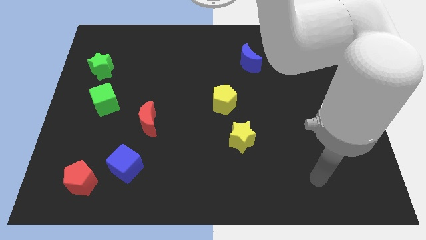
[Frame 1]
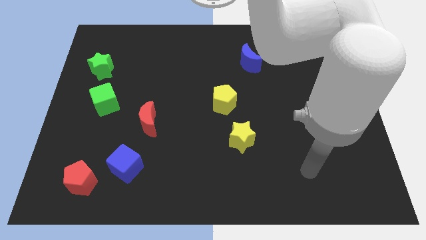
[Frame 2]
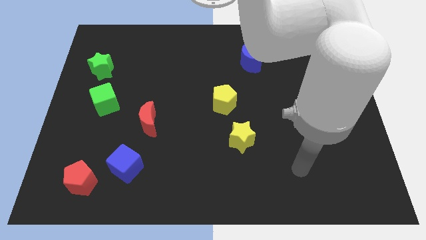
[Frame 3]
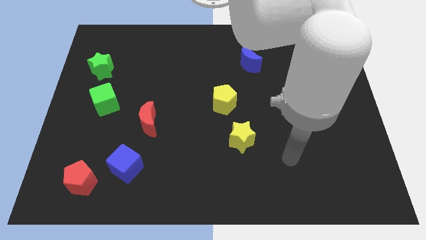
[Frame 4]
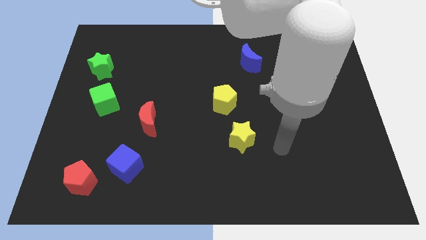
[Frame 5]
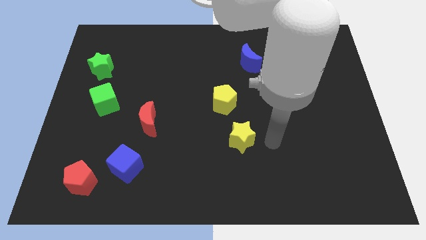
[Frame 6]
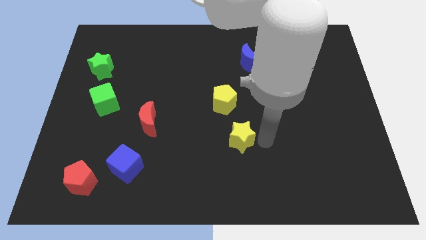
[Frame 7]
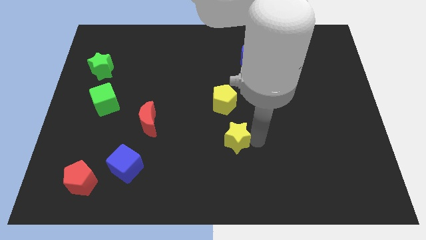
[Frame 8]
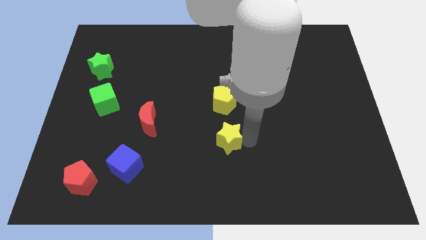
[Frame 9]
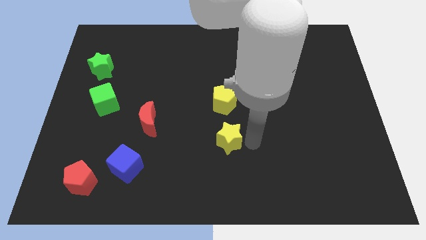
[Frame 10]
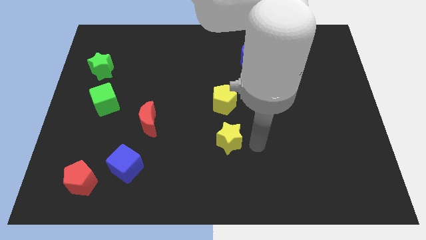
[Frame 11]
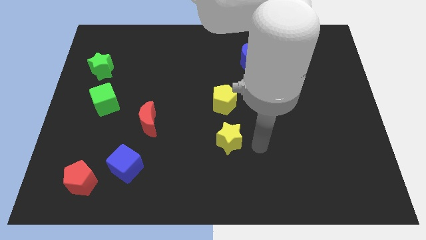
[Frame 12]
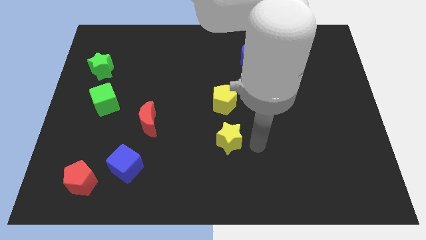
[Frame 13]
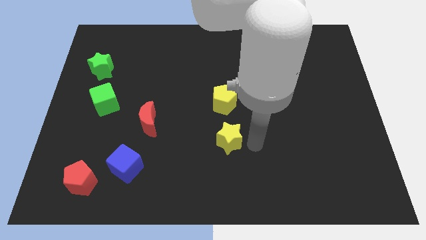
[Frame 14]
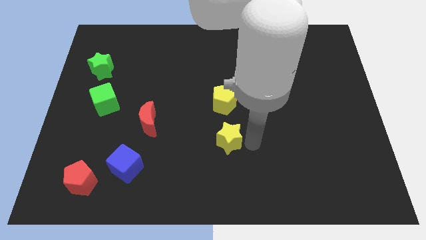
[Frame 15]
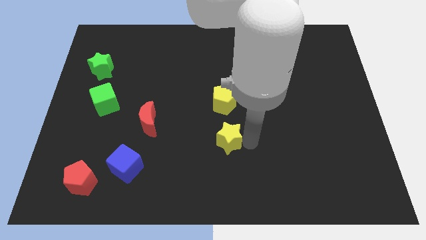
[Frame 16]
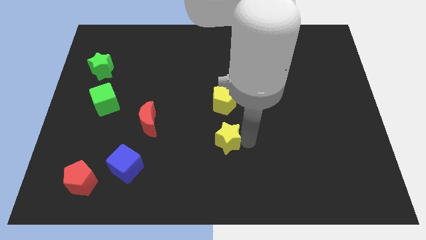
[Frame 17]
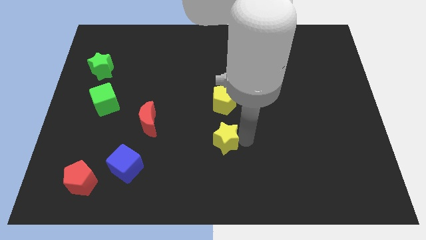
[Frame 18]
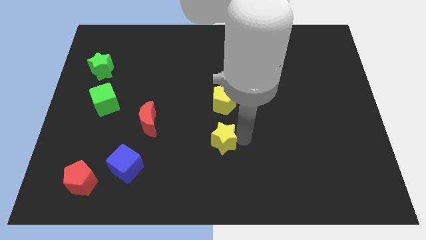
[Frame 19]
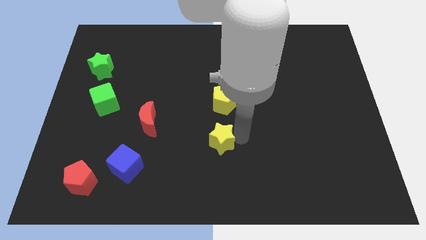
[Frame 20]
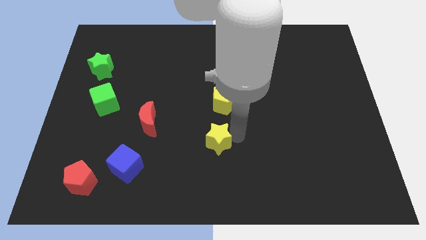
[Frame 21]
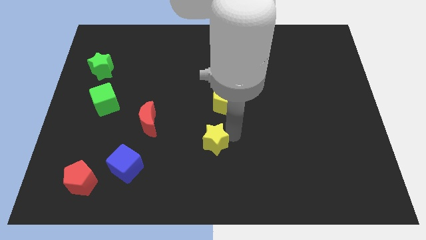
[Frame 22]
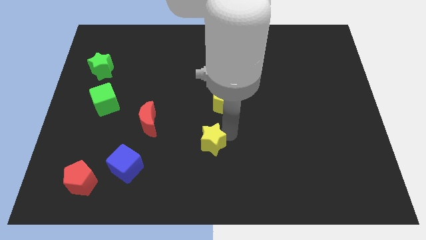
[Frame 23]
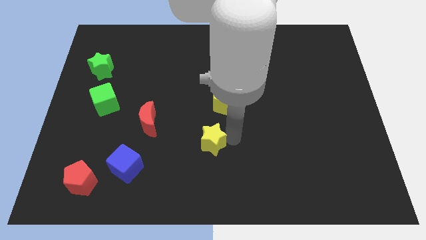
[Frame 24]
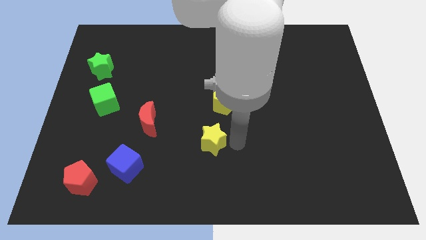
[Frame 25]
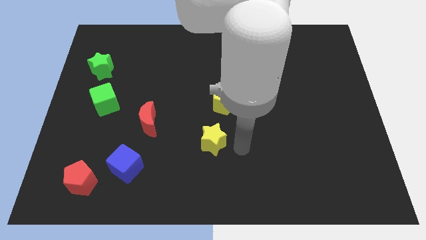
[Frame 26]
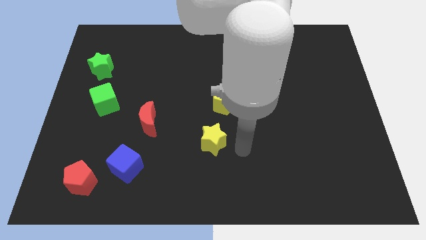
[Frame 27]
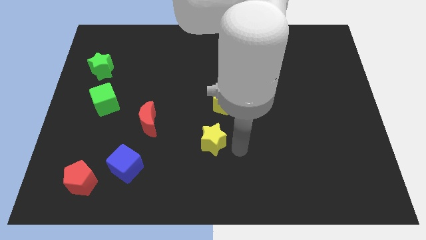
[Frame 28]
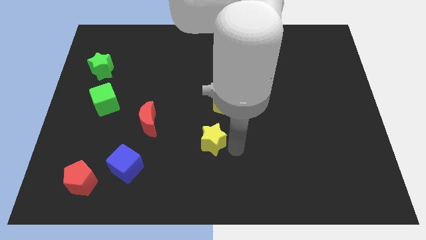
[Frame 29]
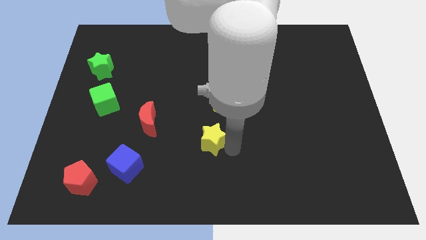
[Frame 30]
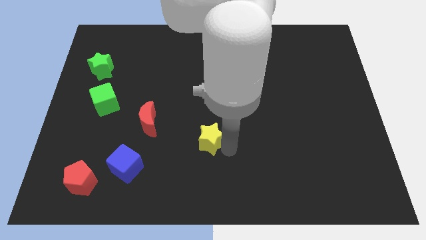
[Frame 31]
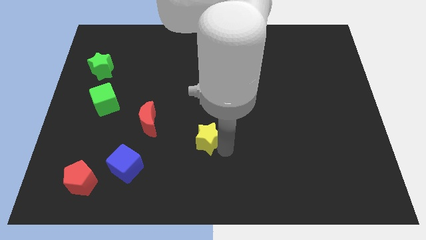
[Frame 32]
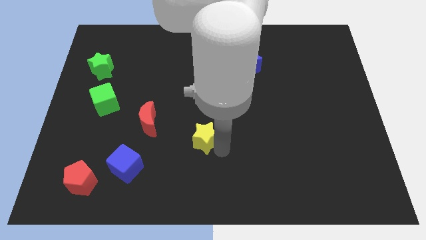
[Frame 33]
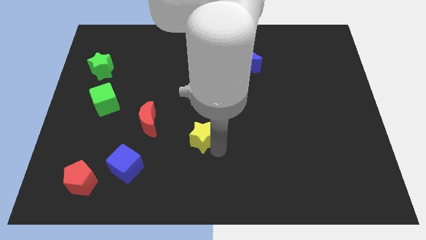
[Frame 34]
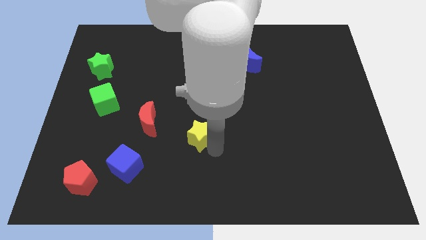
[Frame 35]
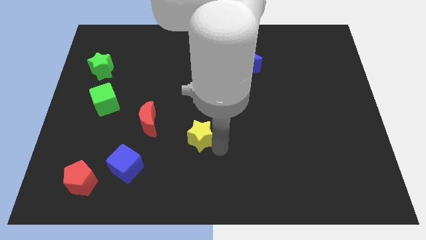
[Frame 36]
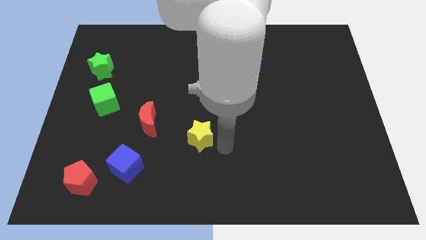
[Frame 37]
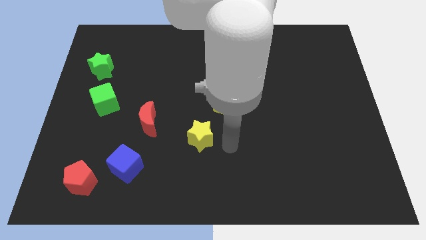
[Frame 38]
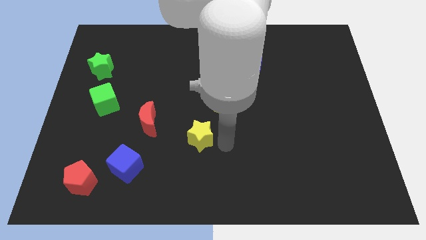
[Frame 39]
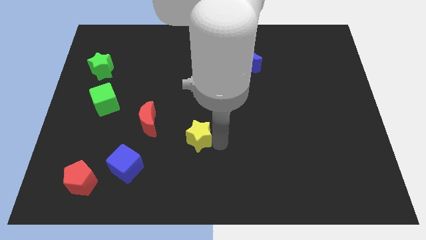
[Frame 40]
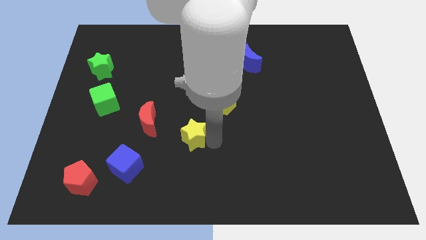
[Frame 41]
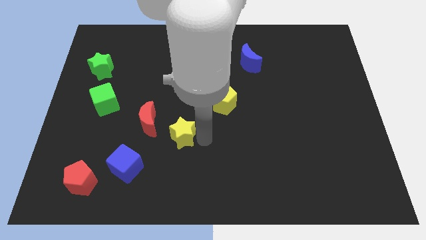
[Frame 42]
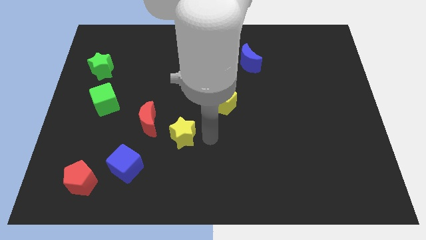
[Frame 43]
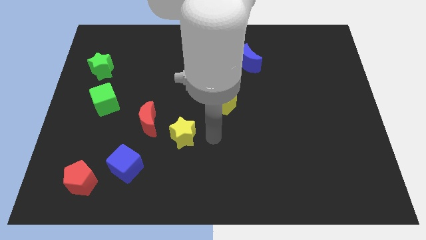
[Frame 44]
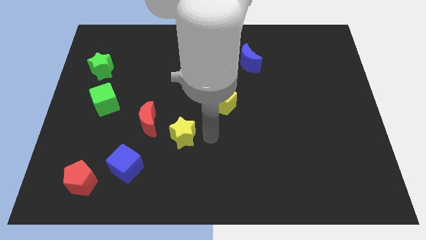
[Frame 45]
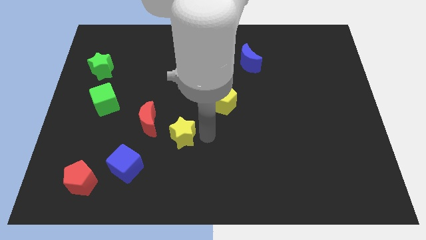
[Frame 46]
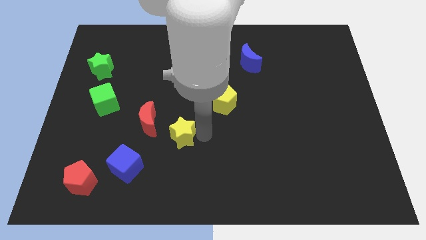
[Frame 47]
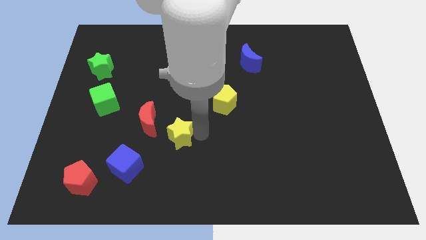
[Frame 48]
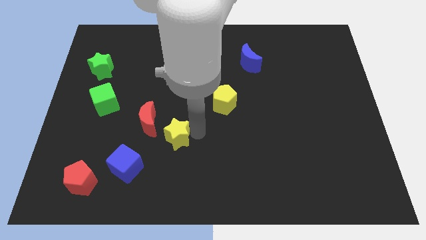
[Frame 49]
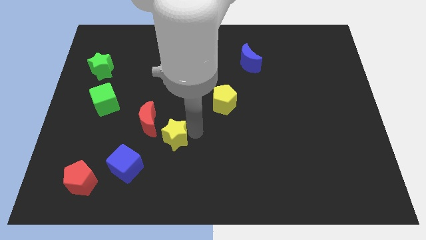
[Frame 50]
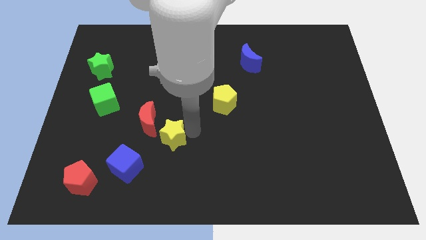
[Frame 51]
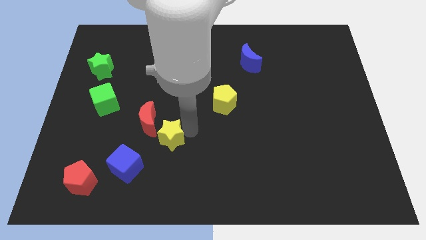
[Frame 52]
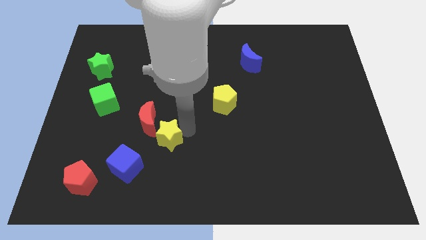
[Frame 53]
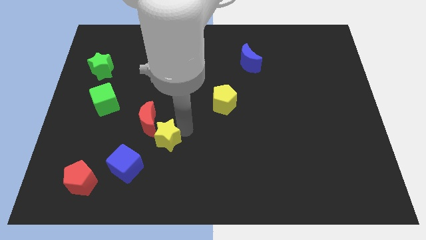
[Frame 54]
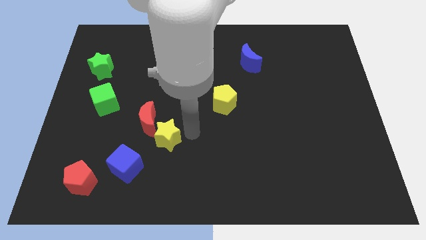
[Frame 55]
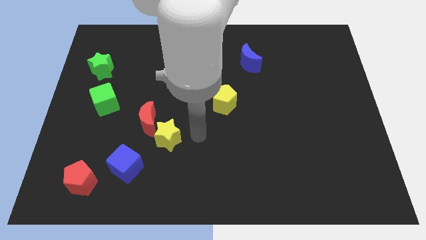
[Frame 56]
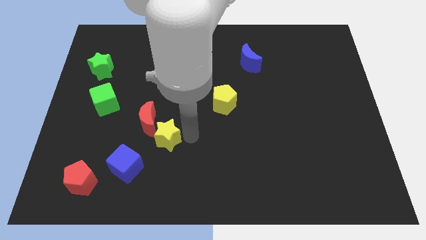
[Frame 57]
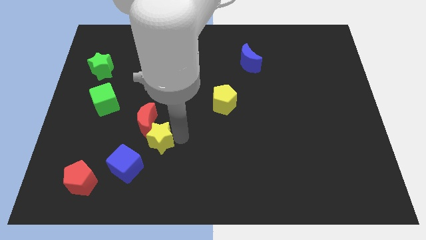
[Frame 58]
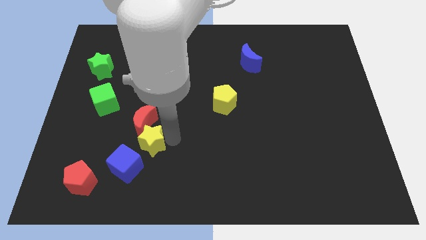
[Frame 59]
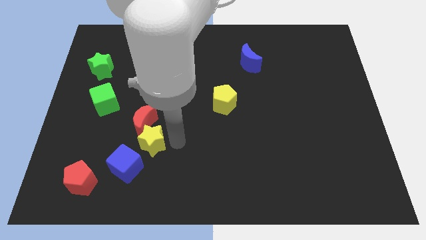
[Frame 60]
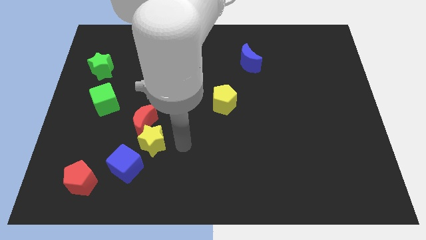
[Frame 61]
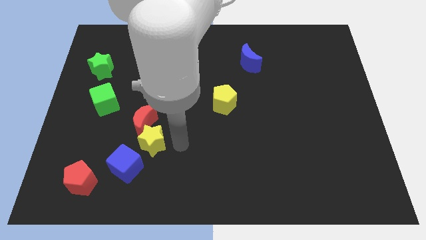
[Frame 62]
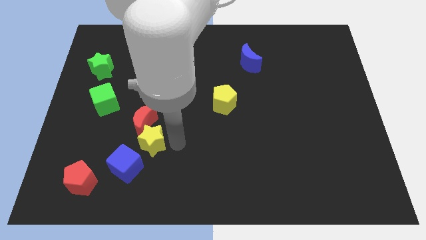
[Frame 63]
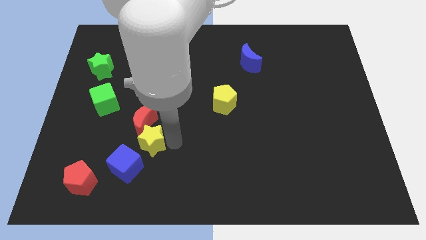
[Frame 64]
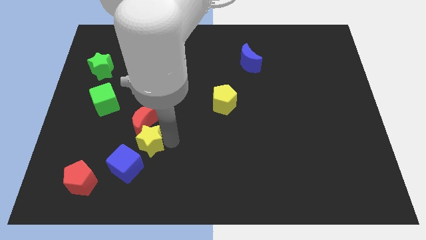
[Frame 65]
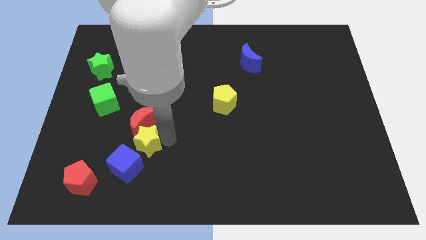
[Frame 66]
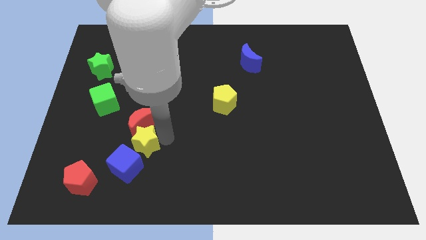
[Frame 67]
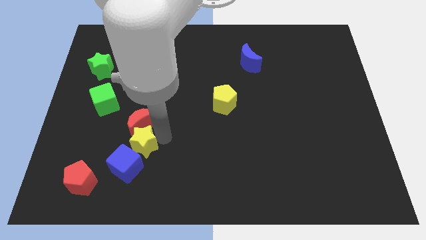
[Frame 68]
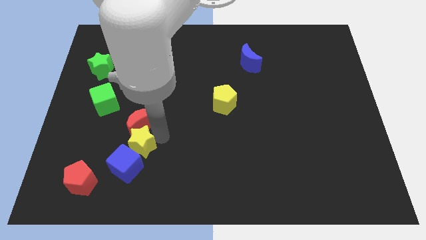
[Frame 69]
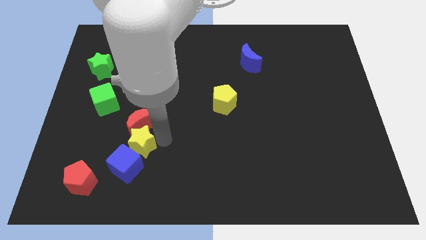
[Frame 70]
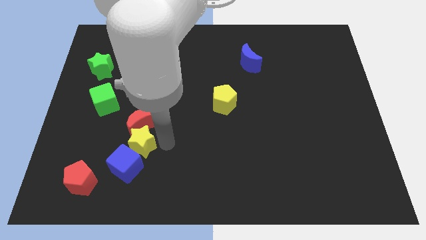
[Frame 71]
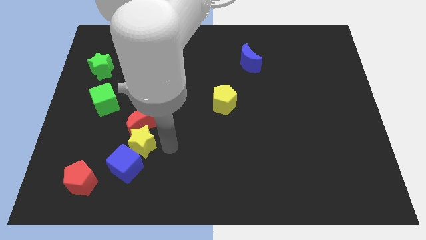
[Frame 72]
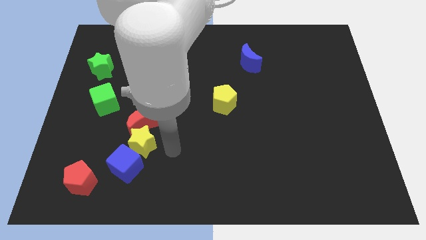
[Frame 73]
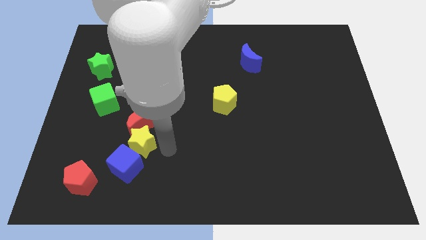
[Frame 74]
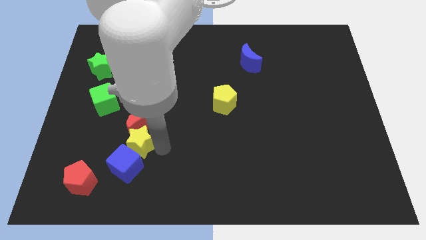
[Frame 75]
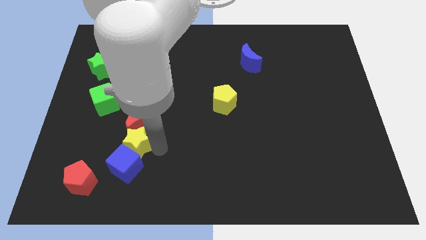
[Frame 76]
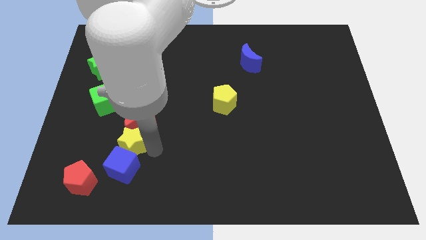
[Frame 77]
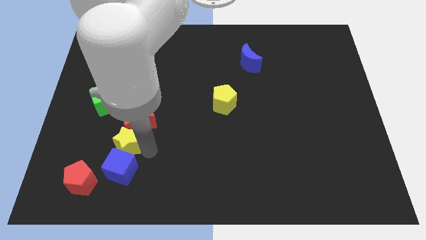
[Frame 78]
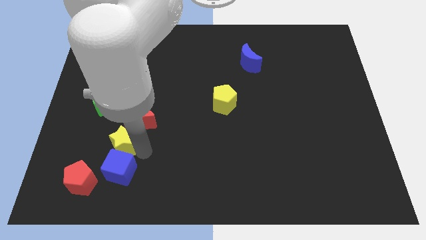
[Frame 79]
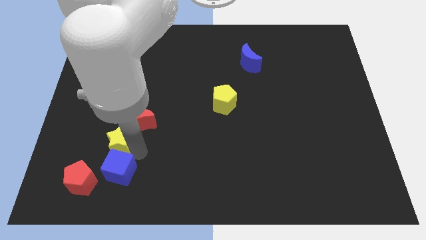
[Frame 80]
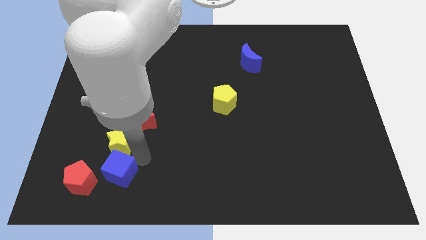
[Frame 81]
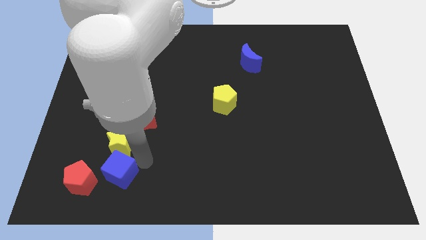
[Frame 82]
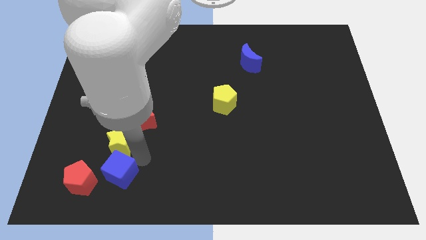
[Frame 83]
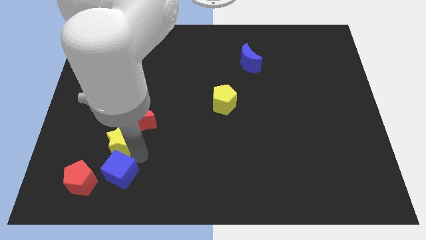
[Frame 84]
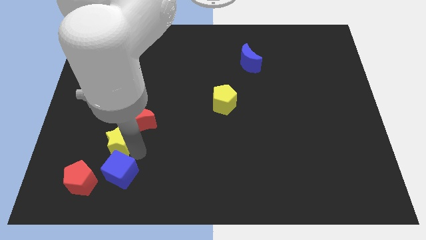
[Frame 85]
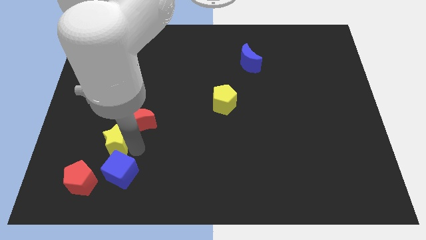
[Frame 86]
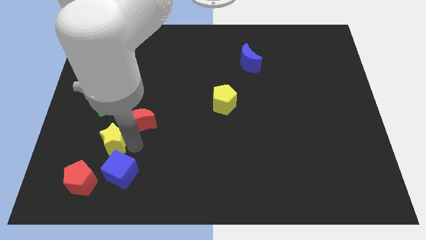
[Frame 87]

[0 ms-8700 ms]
put the yellow star to the left of the red moon
